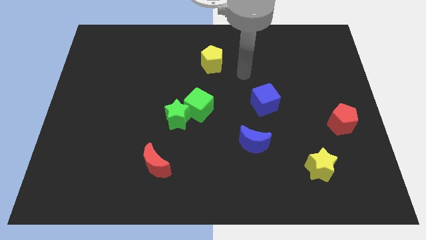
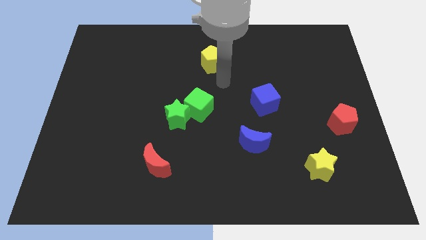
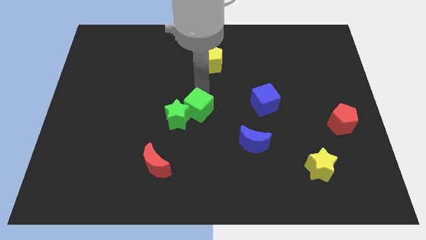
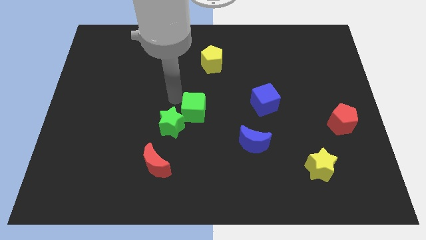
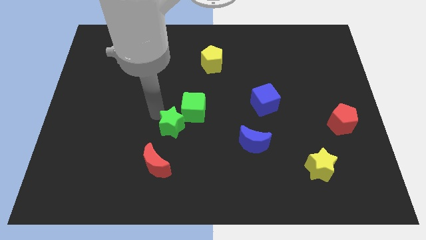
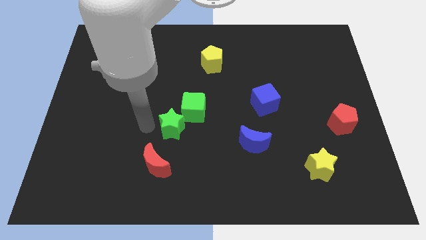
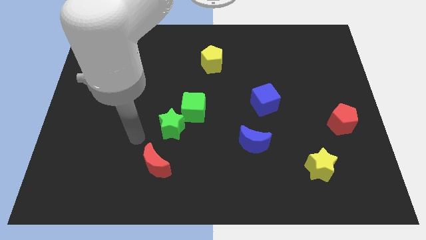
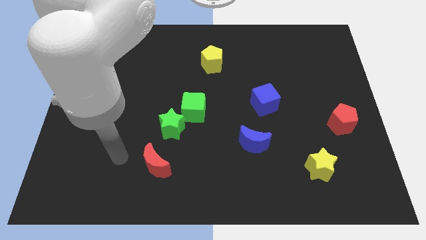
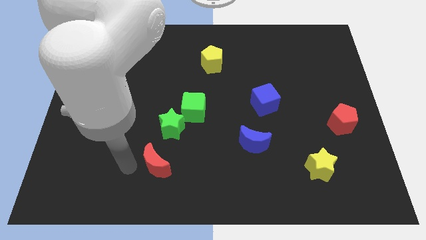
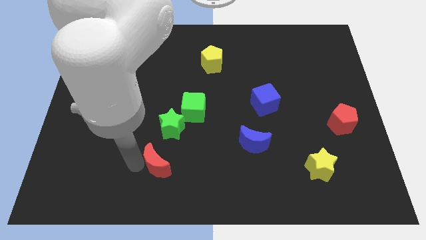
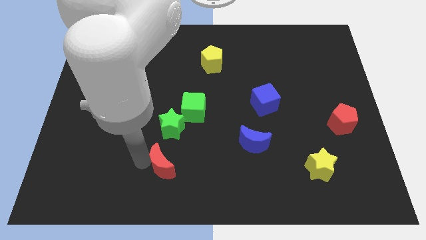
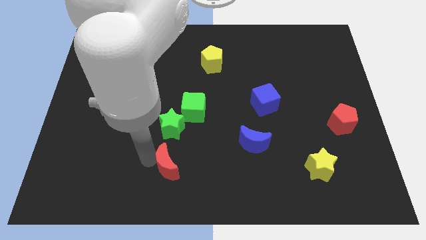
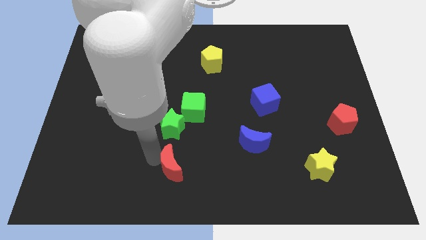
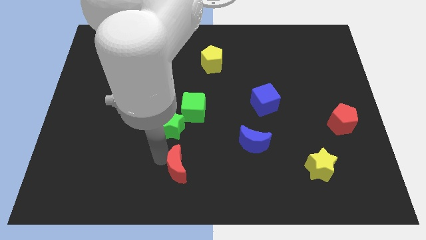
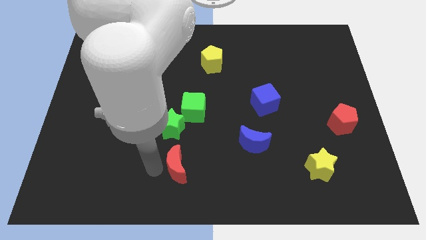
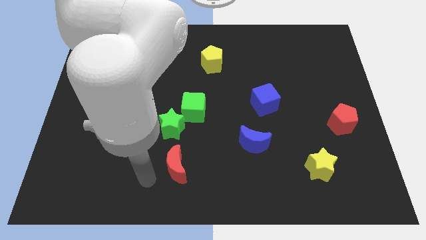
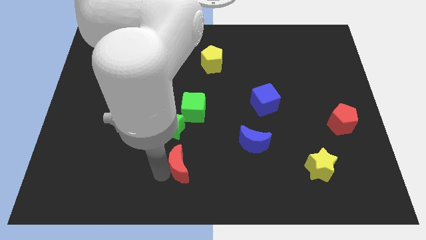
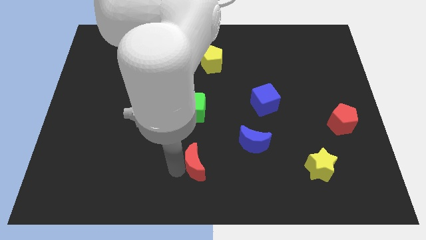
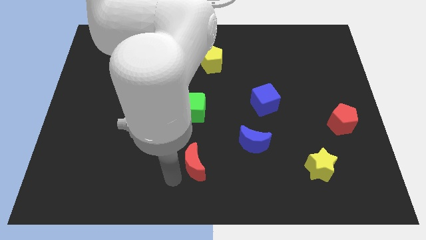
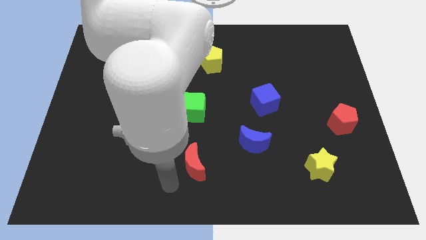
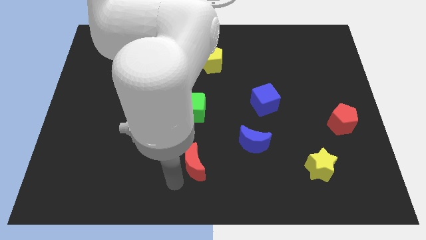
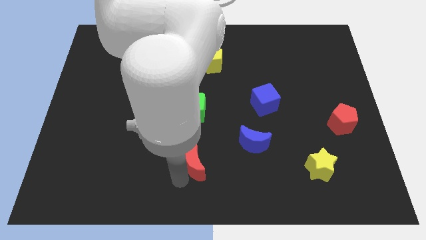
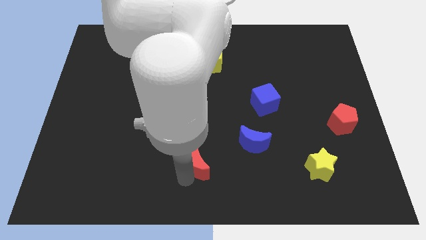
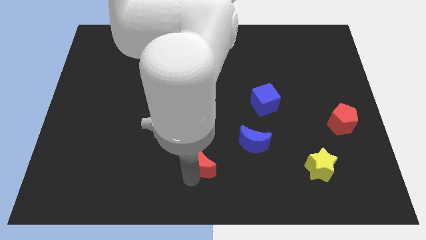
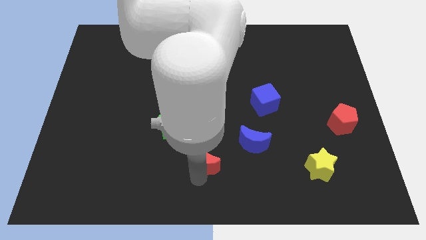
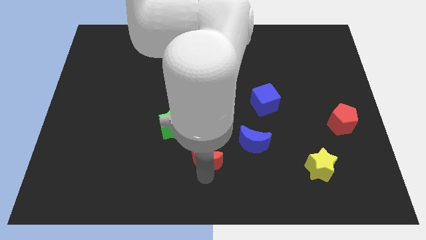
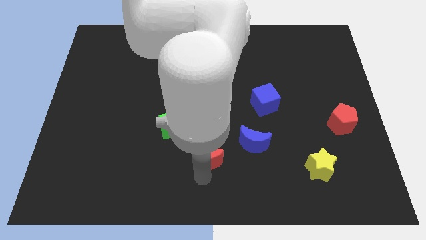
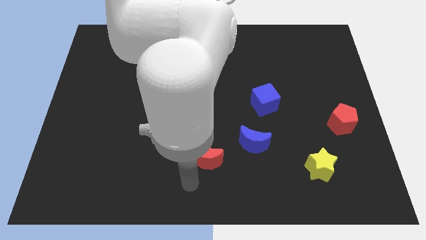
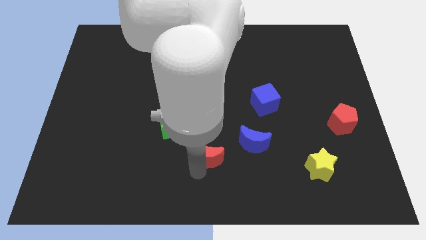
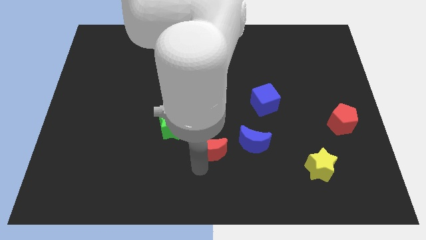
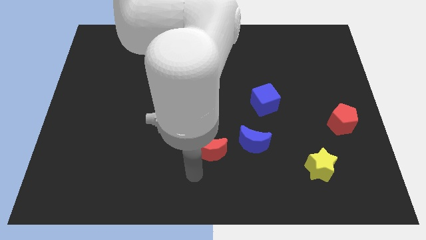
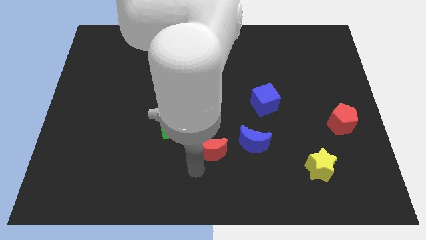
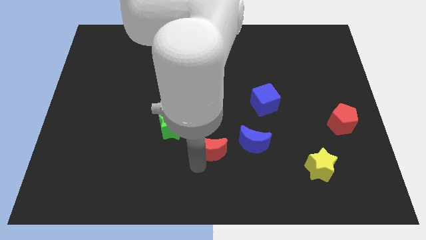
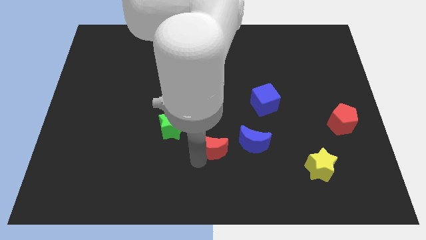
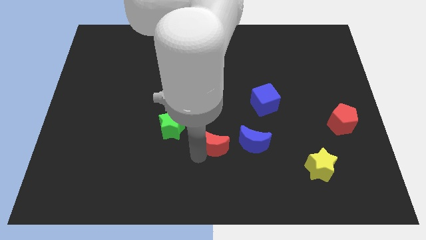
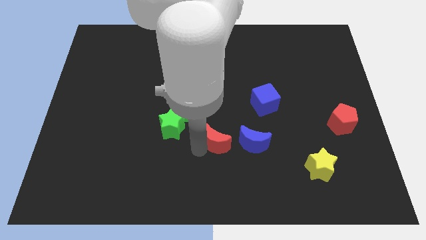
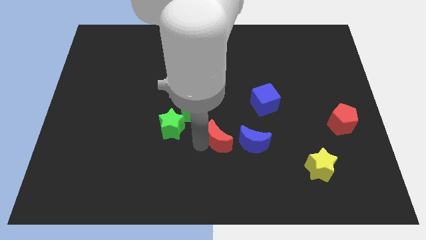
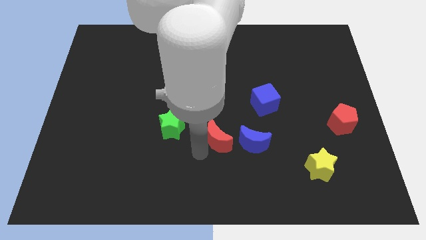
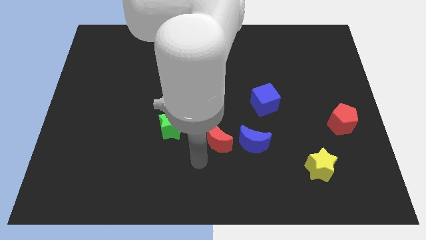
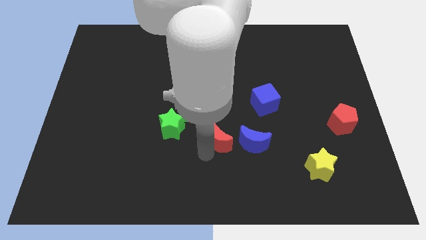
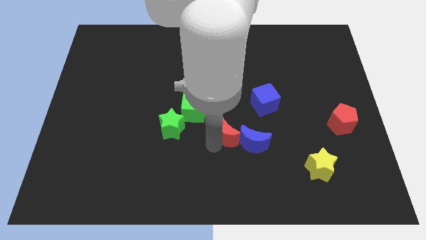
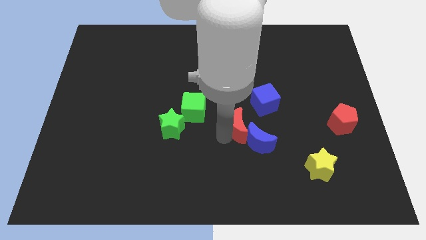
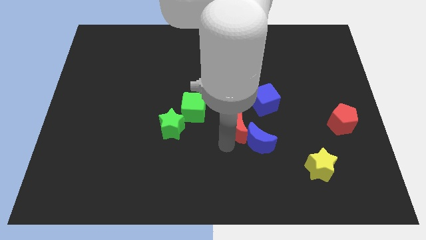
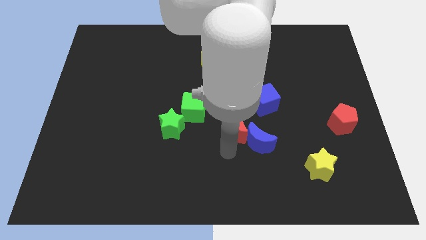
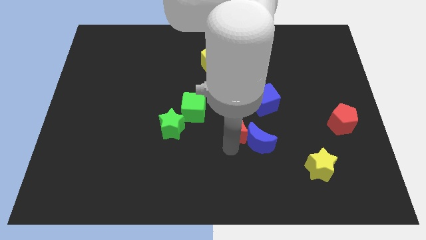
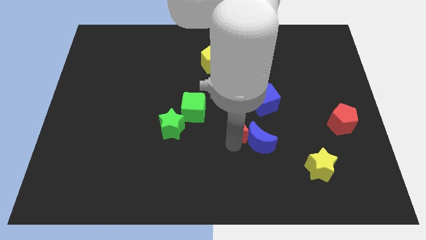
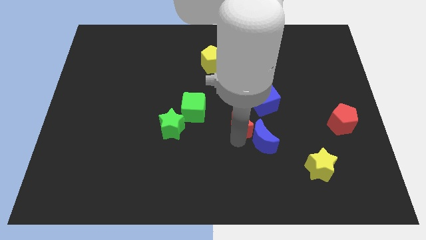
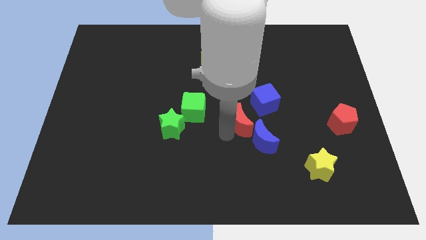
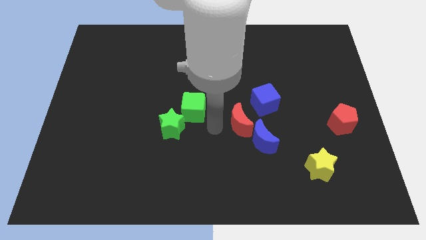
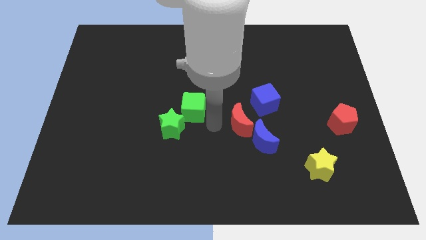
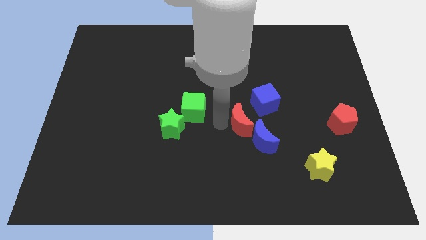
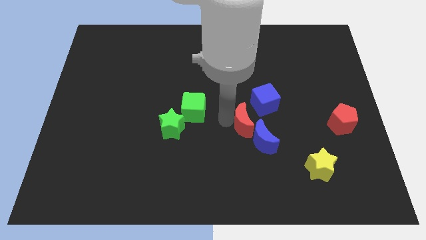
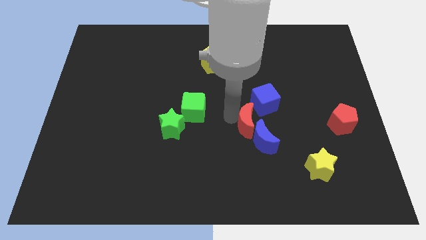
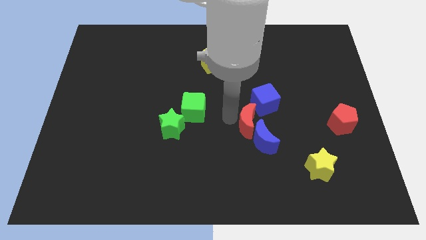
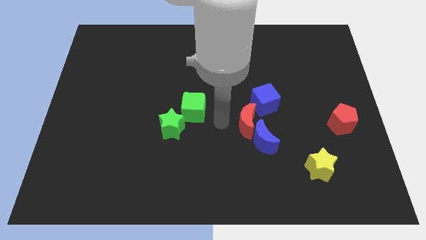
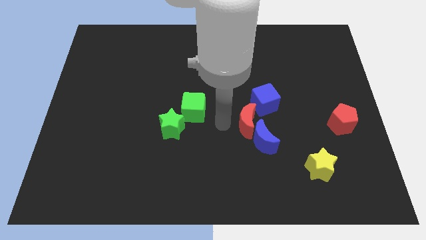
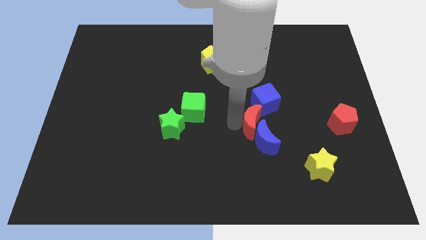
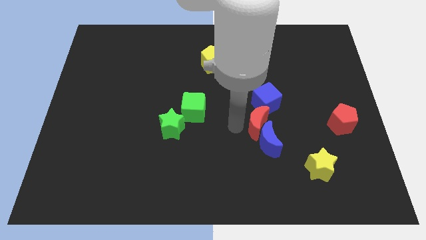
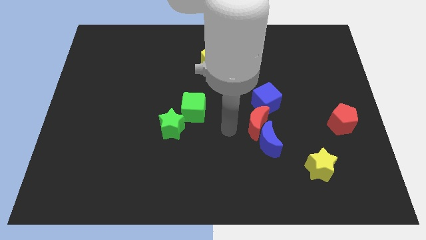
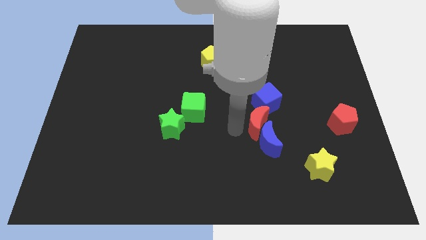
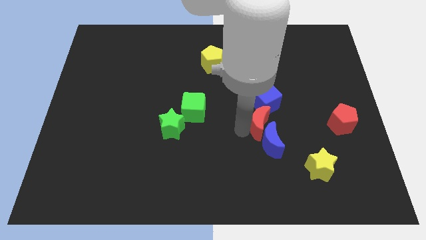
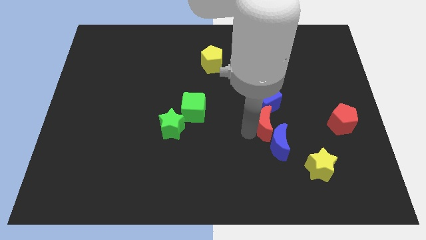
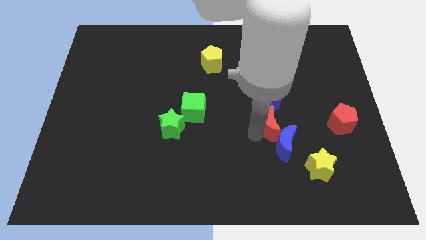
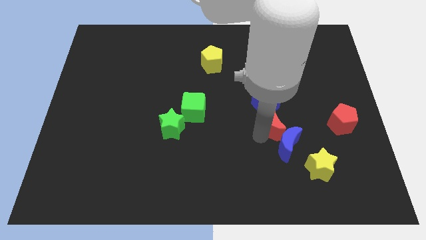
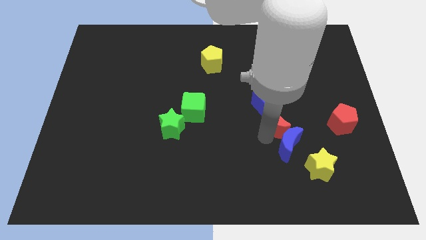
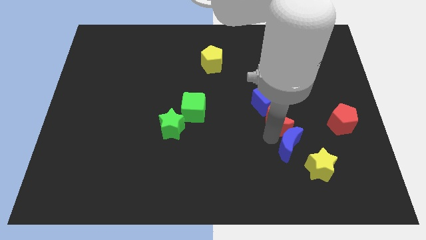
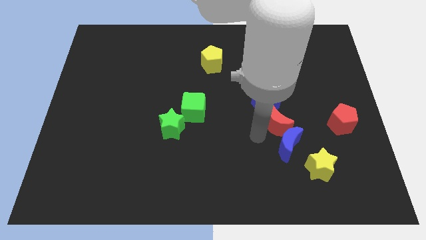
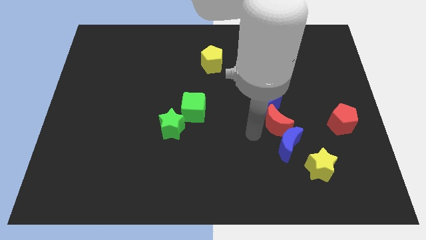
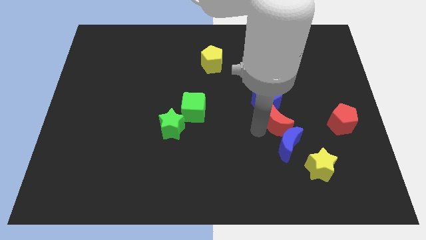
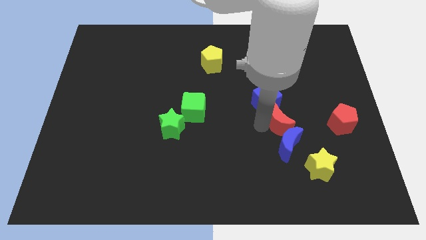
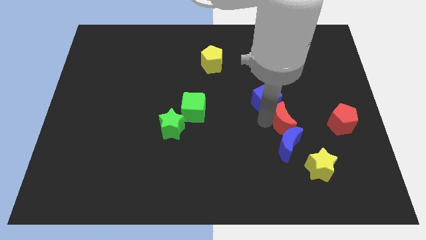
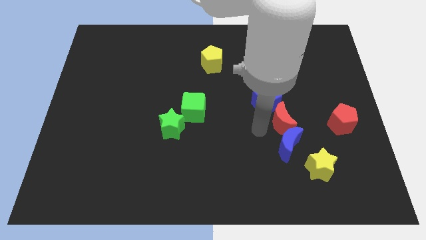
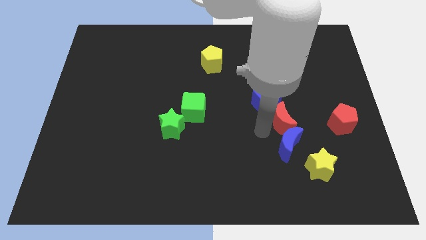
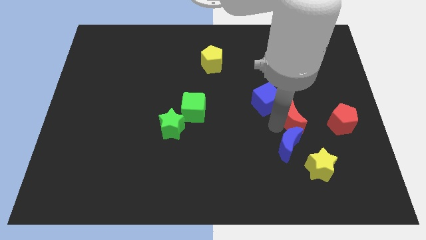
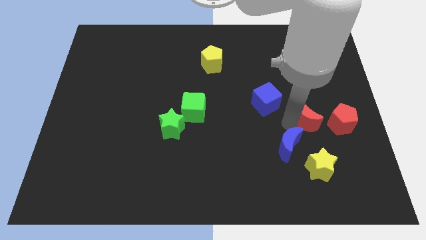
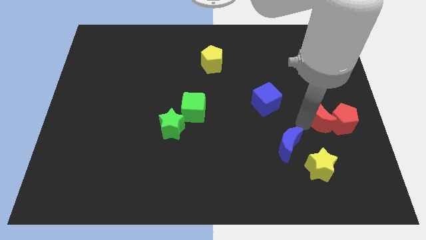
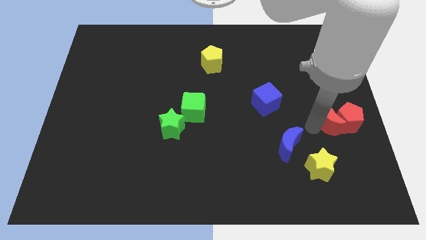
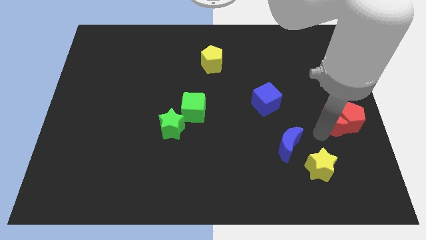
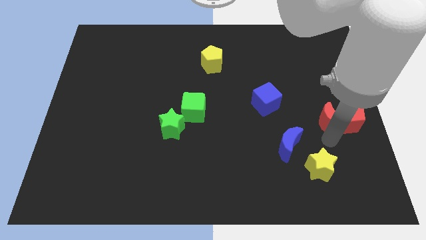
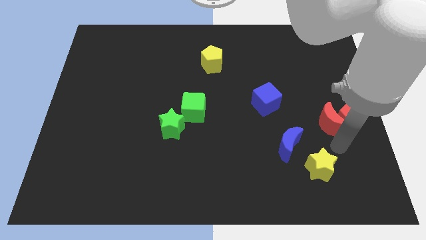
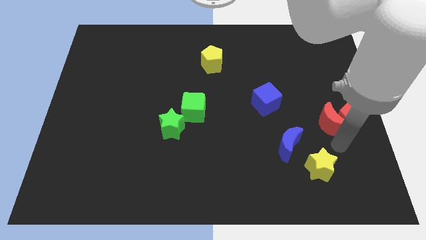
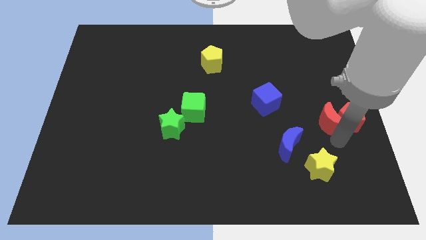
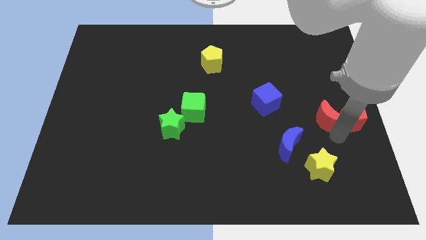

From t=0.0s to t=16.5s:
move the red moon to the center right
